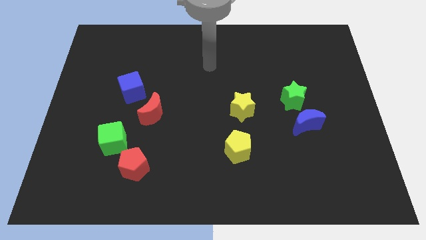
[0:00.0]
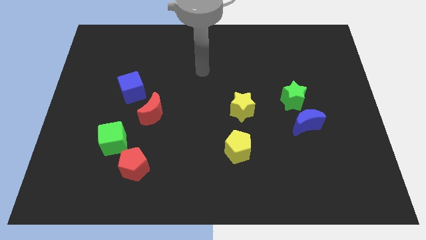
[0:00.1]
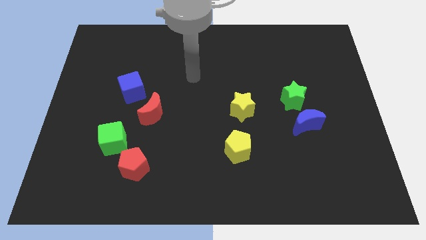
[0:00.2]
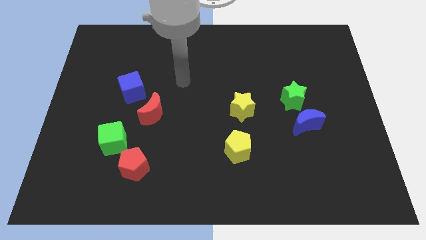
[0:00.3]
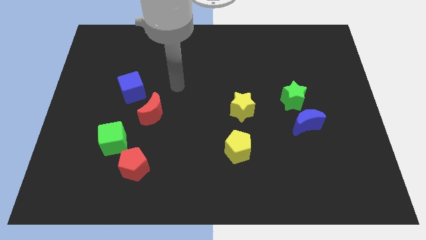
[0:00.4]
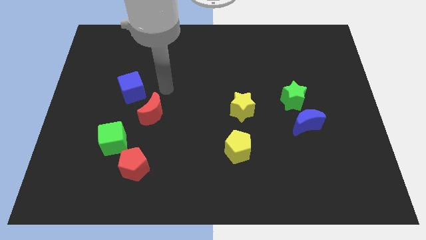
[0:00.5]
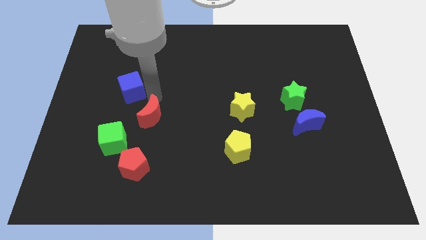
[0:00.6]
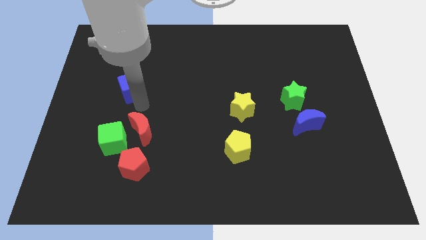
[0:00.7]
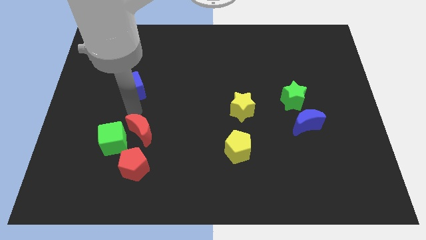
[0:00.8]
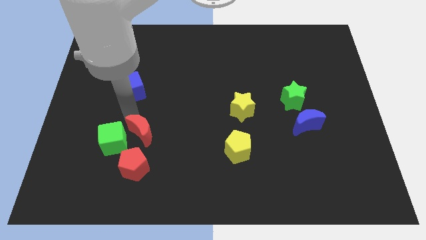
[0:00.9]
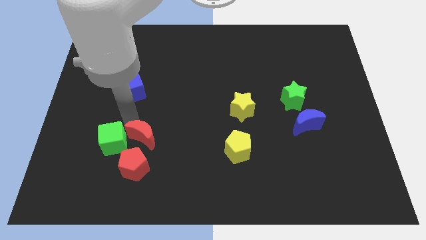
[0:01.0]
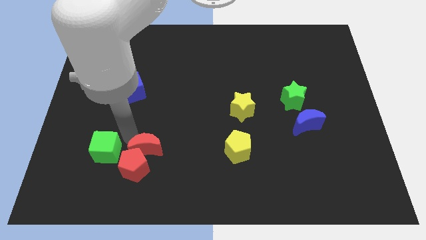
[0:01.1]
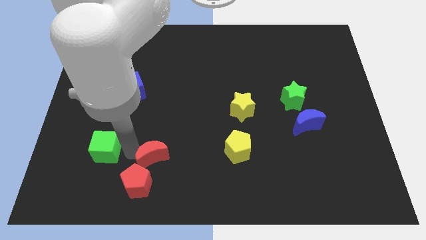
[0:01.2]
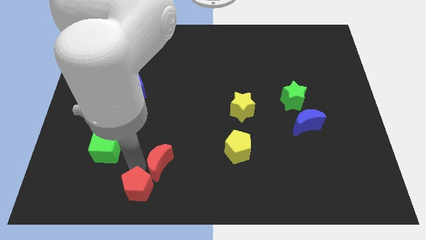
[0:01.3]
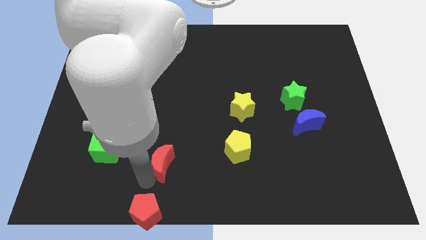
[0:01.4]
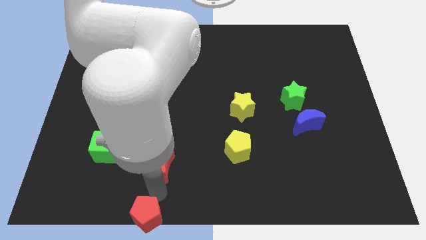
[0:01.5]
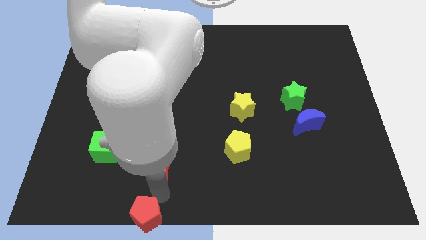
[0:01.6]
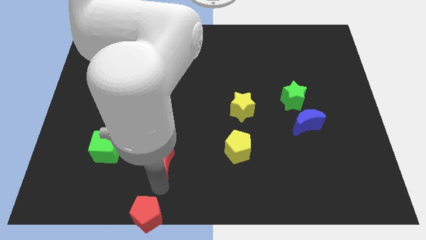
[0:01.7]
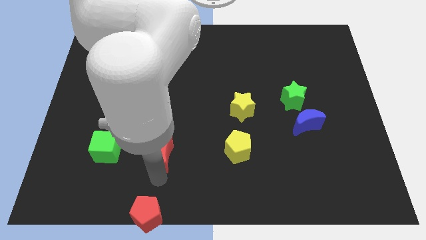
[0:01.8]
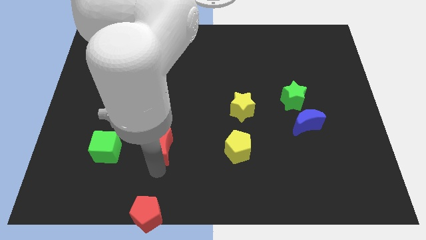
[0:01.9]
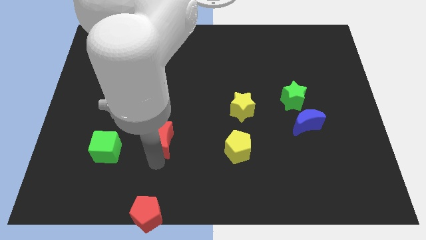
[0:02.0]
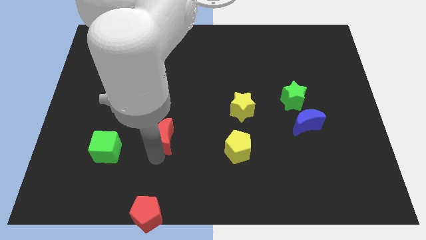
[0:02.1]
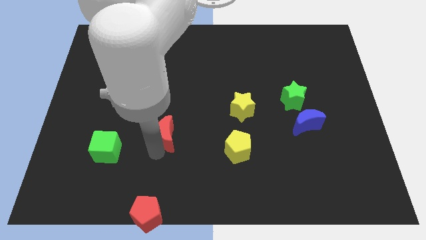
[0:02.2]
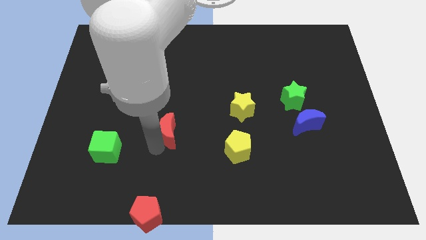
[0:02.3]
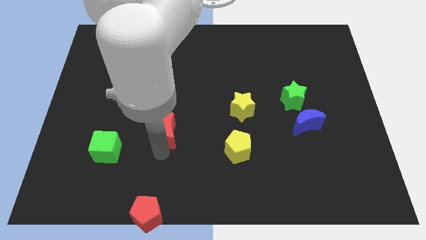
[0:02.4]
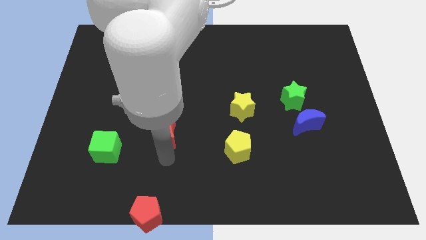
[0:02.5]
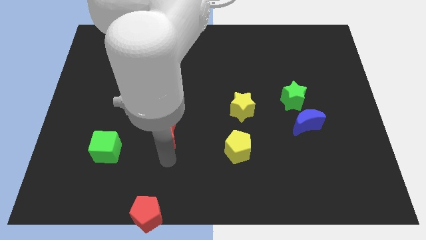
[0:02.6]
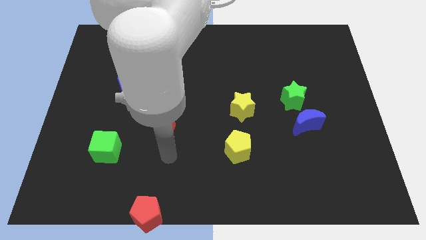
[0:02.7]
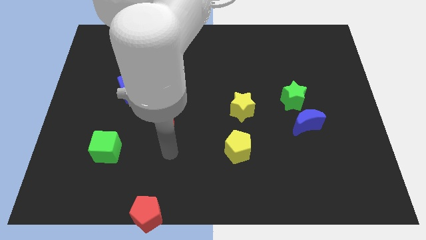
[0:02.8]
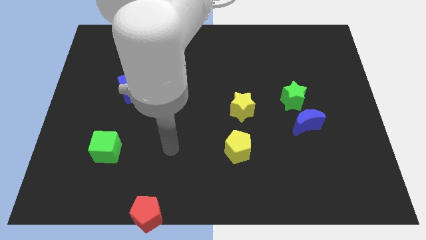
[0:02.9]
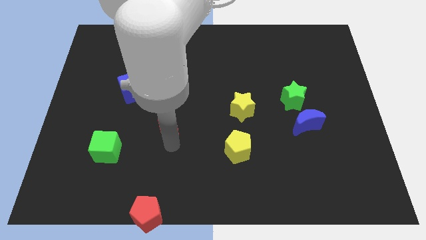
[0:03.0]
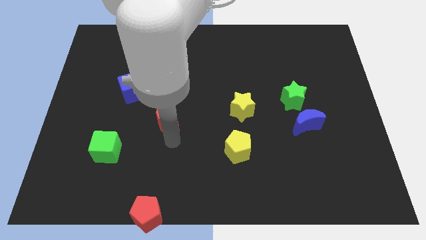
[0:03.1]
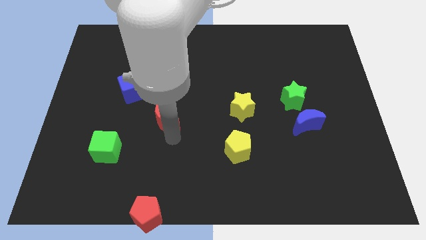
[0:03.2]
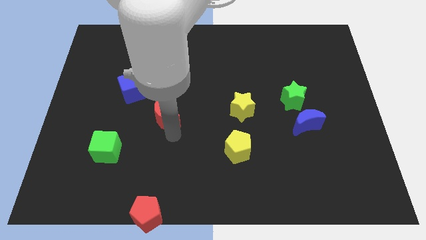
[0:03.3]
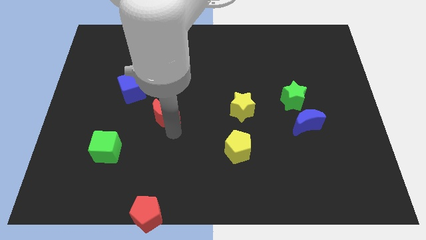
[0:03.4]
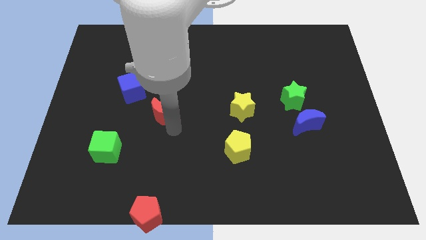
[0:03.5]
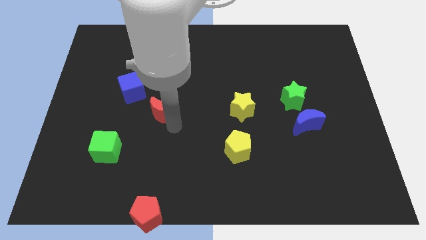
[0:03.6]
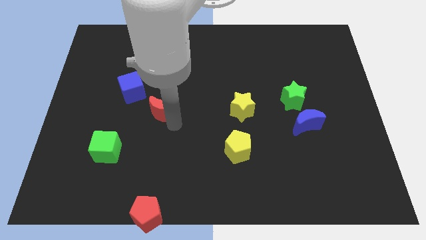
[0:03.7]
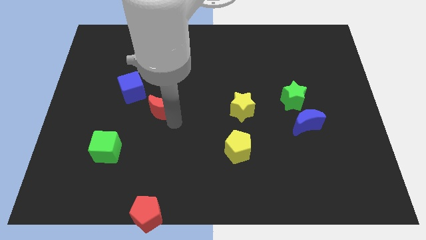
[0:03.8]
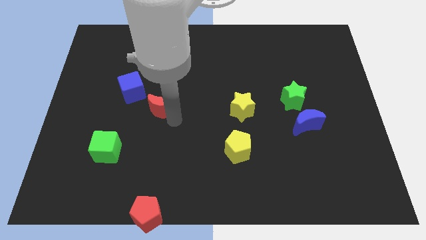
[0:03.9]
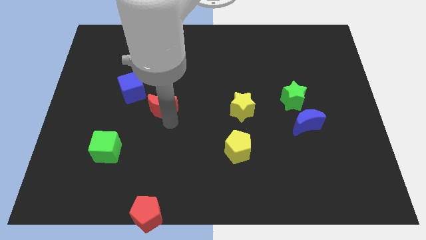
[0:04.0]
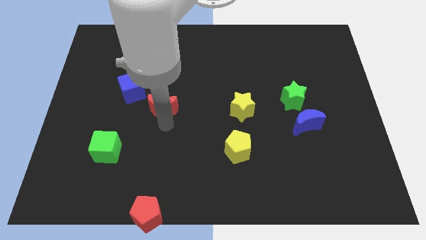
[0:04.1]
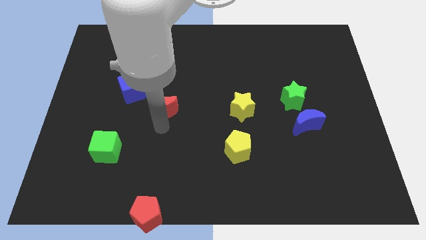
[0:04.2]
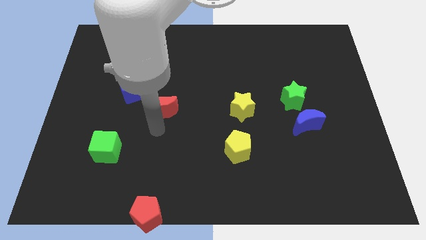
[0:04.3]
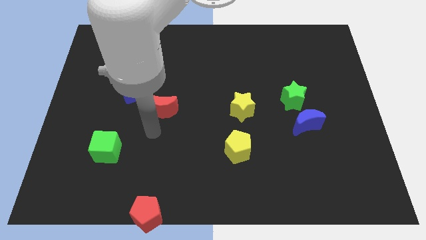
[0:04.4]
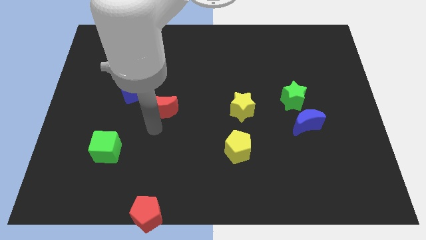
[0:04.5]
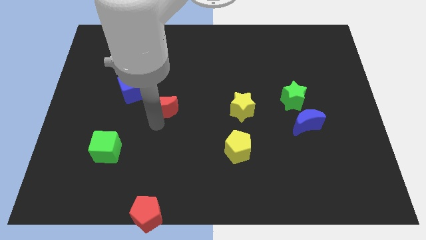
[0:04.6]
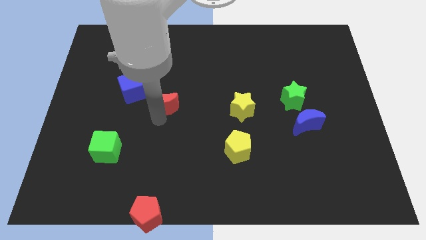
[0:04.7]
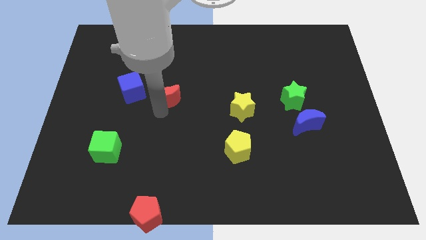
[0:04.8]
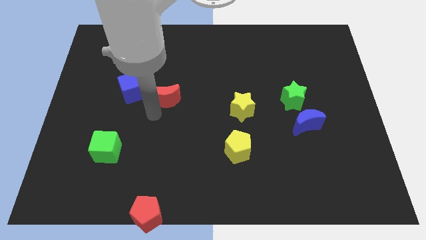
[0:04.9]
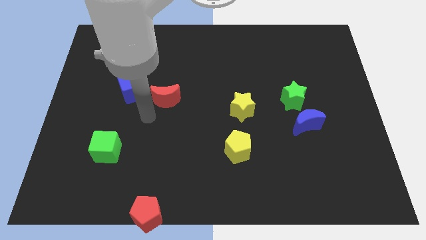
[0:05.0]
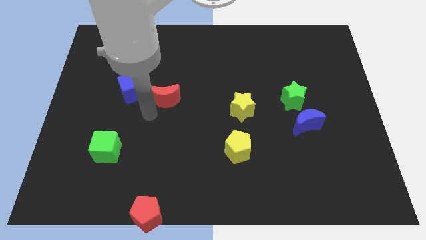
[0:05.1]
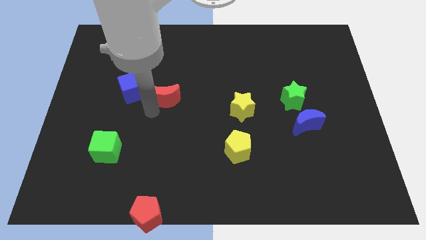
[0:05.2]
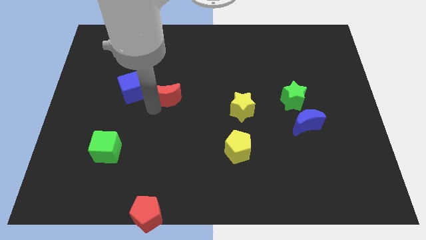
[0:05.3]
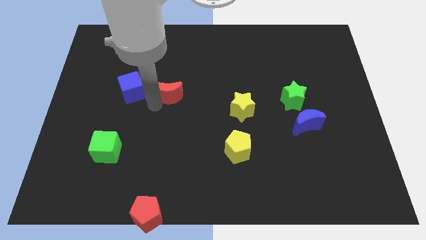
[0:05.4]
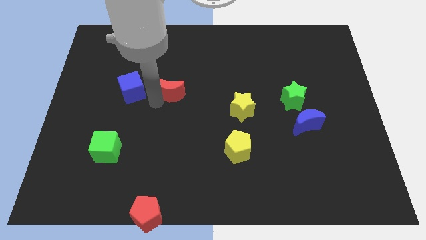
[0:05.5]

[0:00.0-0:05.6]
slightly slide the red moon upwards and to the right

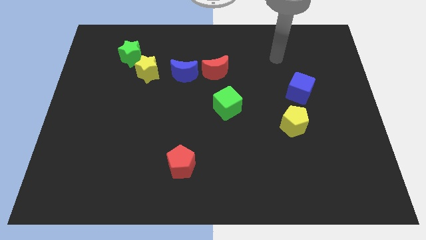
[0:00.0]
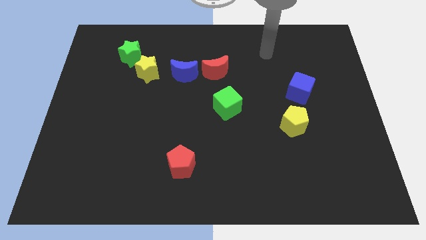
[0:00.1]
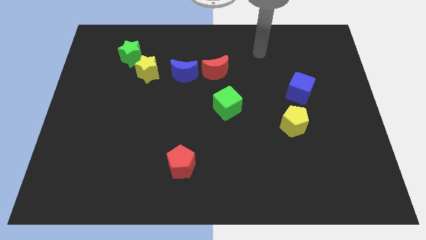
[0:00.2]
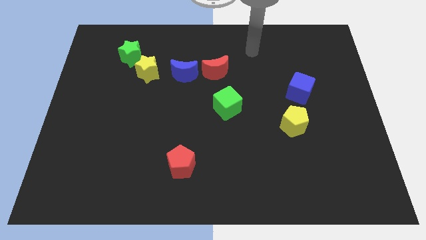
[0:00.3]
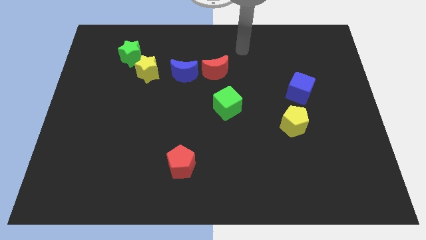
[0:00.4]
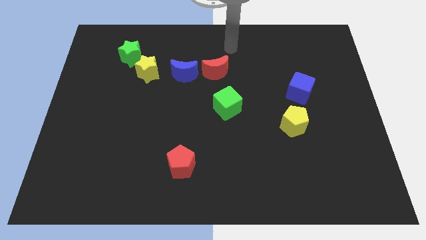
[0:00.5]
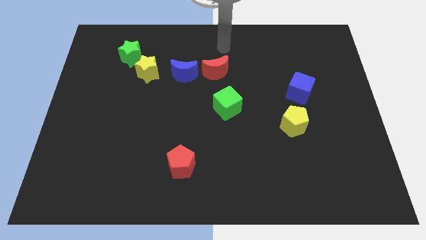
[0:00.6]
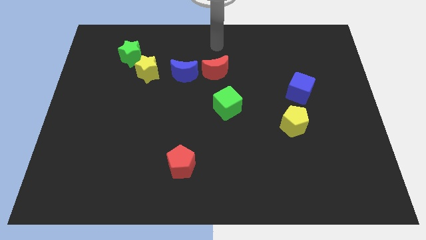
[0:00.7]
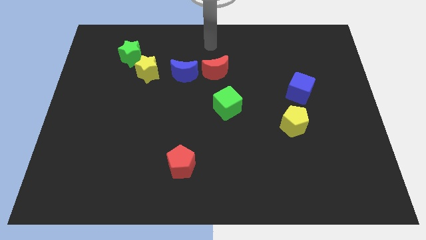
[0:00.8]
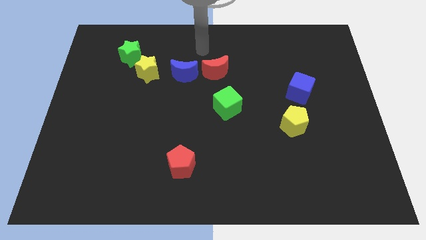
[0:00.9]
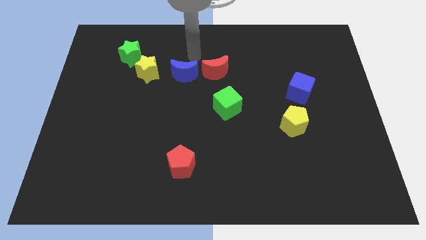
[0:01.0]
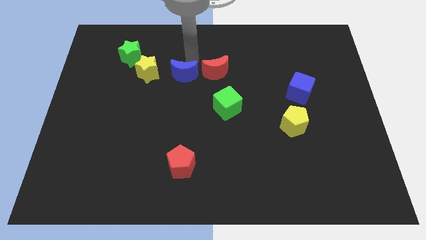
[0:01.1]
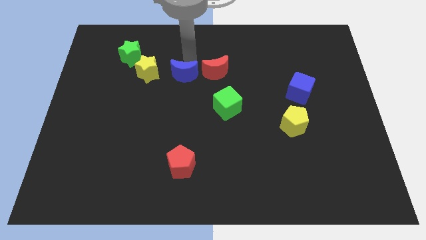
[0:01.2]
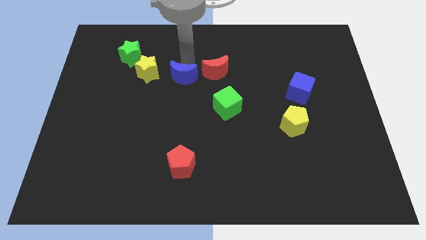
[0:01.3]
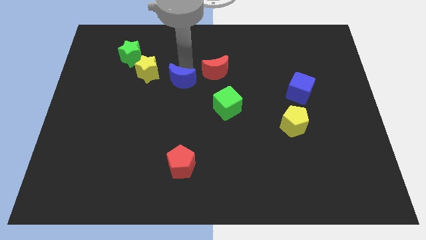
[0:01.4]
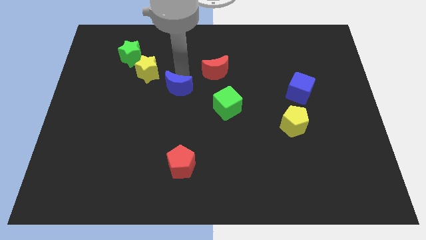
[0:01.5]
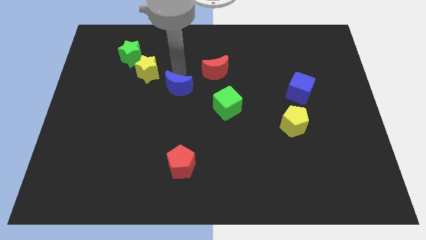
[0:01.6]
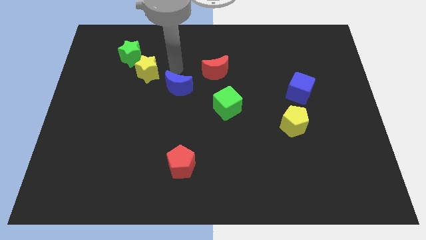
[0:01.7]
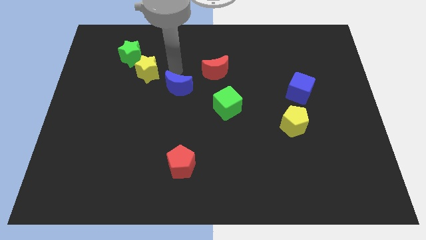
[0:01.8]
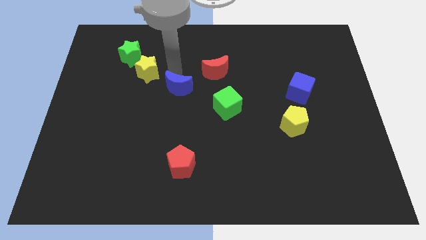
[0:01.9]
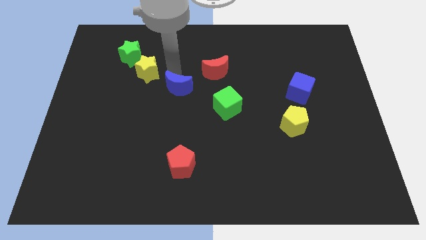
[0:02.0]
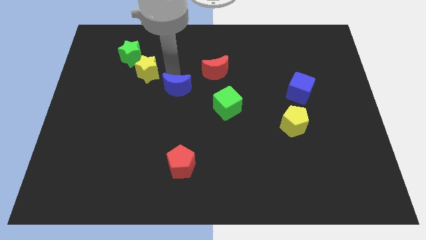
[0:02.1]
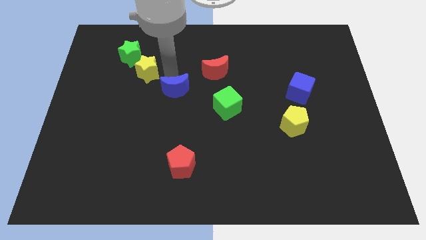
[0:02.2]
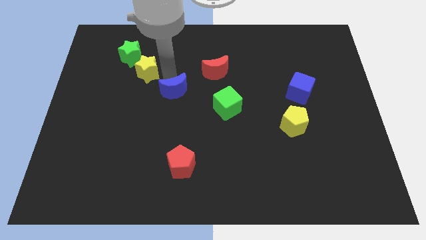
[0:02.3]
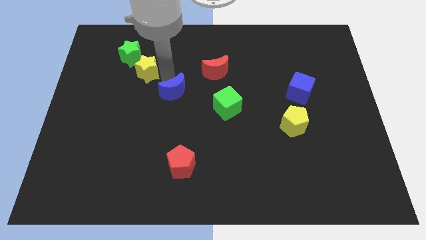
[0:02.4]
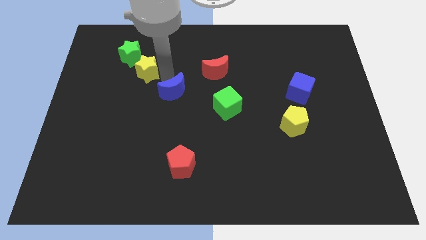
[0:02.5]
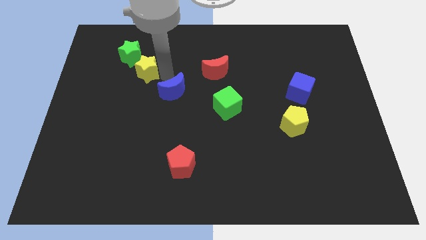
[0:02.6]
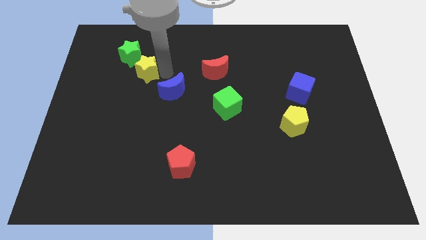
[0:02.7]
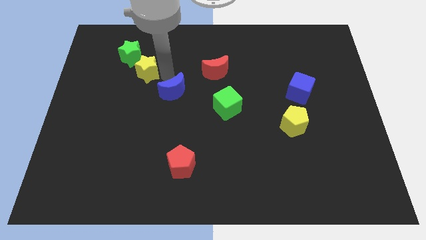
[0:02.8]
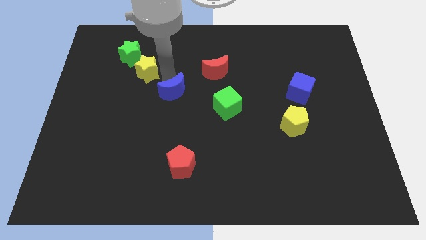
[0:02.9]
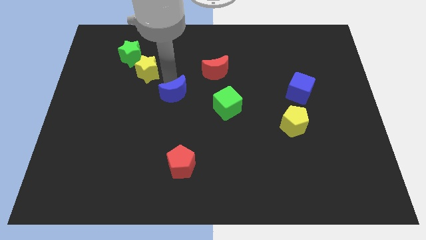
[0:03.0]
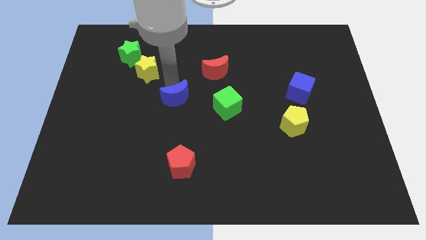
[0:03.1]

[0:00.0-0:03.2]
move the blue moon downwards somewhat
